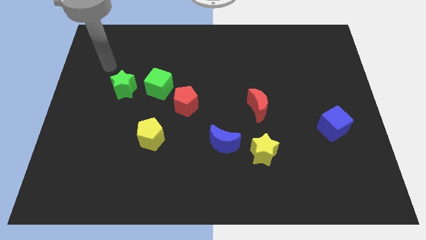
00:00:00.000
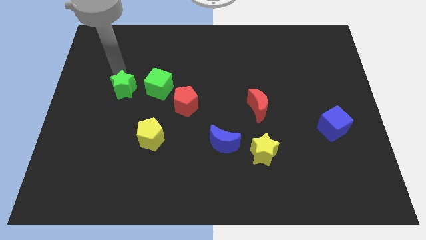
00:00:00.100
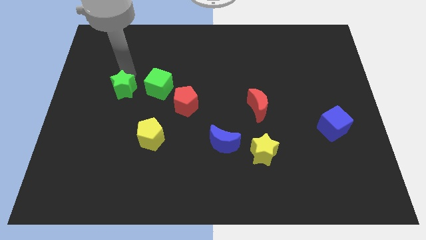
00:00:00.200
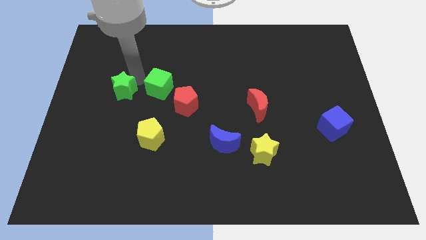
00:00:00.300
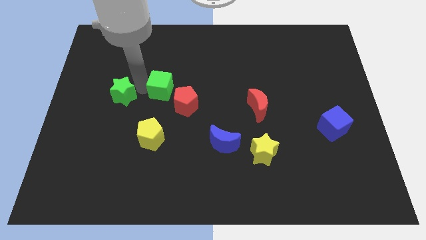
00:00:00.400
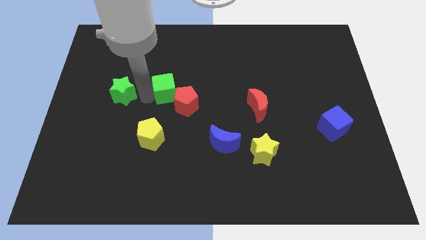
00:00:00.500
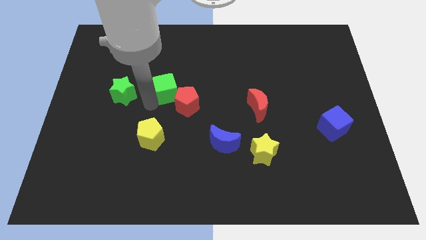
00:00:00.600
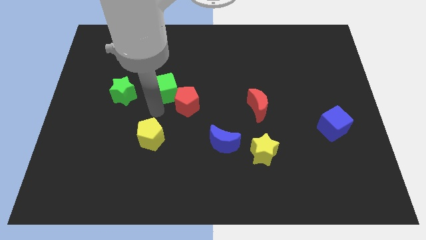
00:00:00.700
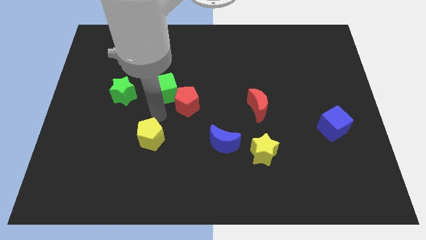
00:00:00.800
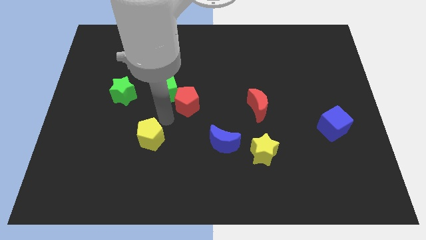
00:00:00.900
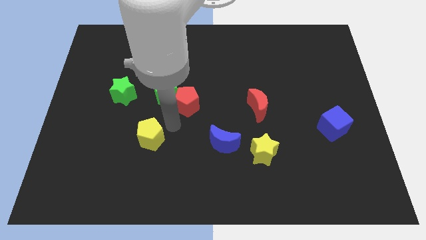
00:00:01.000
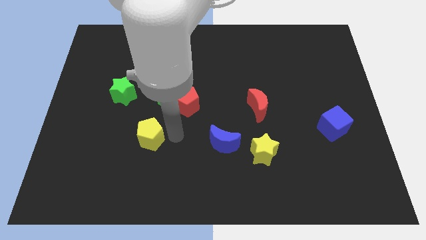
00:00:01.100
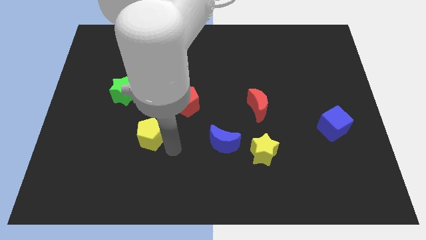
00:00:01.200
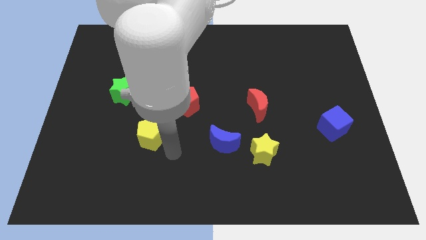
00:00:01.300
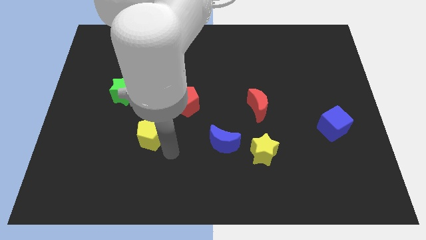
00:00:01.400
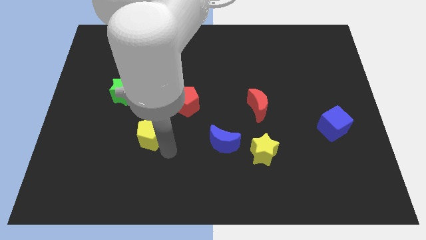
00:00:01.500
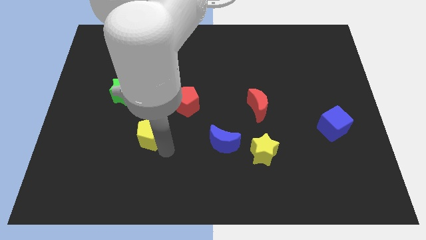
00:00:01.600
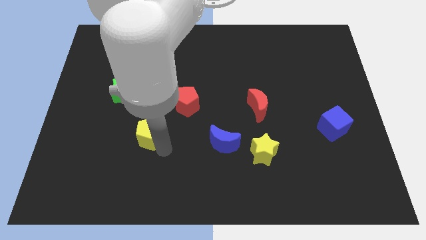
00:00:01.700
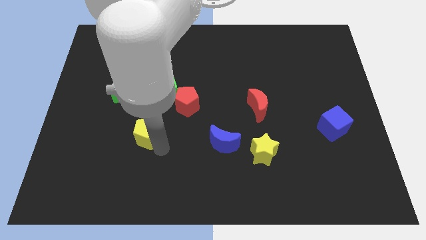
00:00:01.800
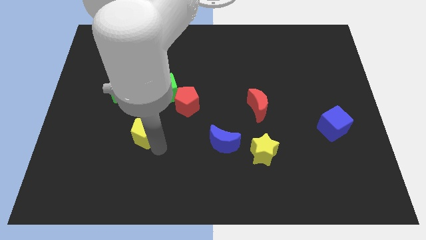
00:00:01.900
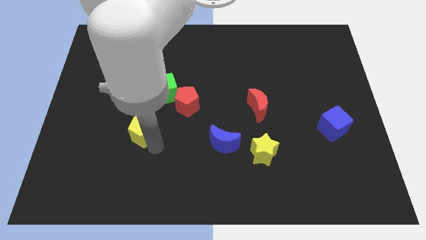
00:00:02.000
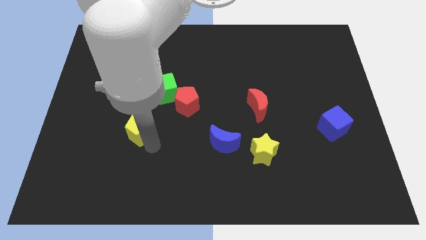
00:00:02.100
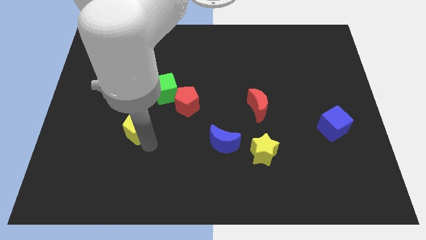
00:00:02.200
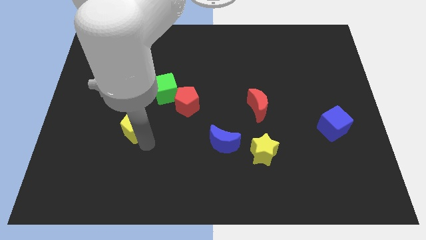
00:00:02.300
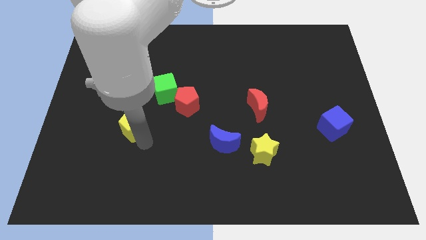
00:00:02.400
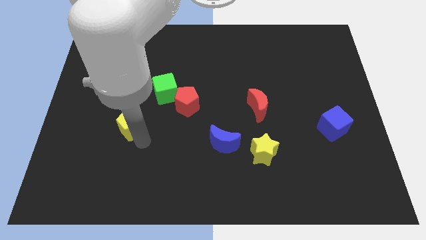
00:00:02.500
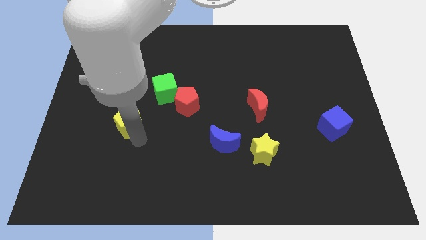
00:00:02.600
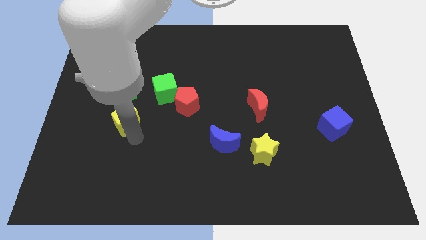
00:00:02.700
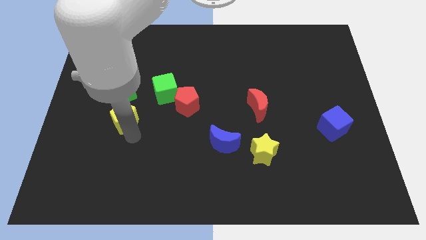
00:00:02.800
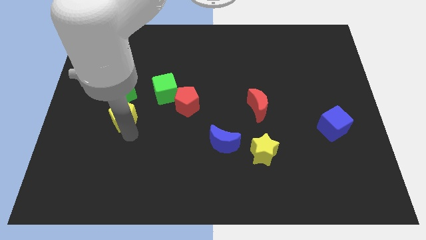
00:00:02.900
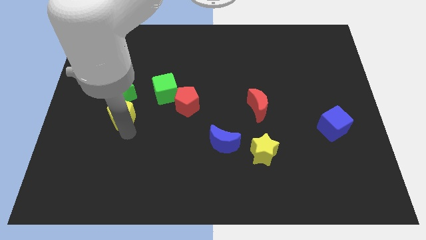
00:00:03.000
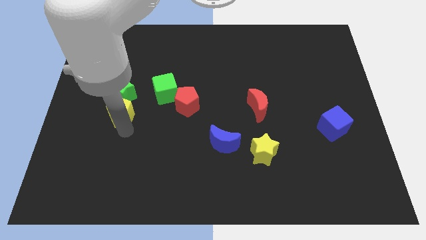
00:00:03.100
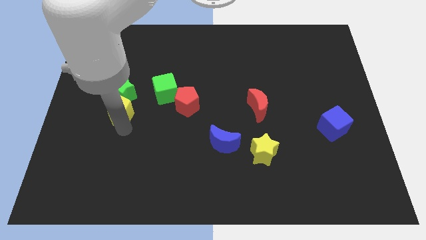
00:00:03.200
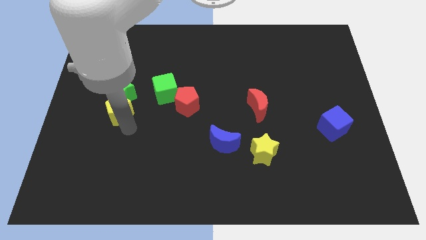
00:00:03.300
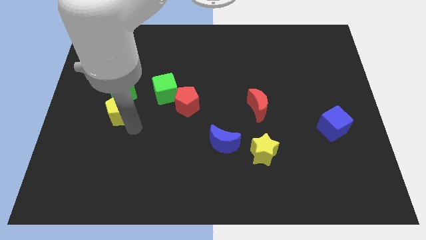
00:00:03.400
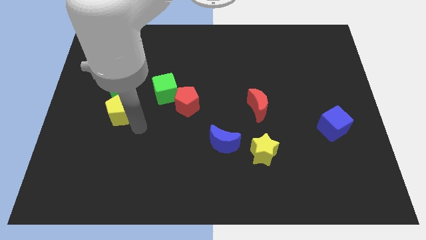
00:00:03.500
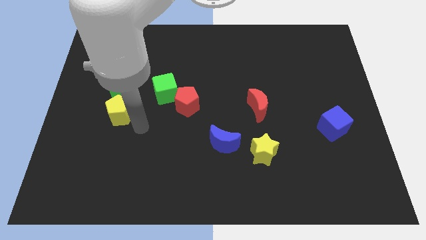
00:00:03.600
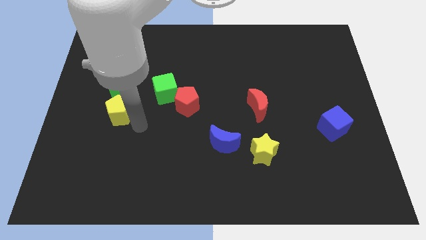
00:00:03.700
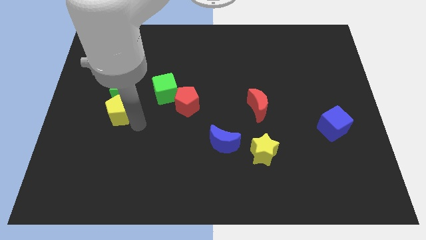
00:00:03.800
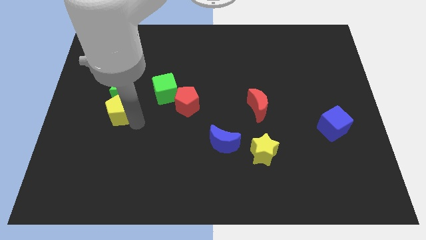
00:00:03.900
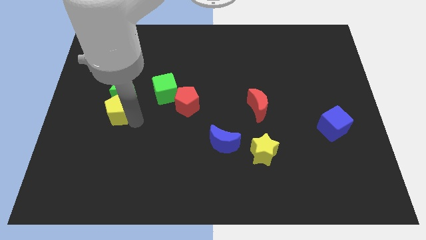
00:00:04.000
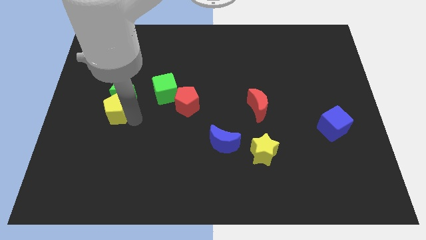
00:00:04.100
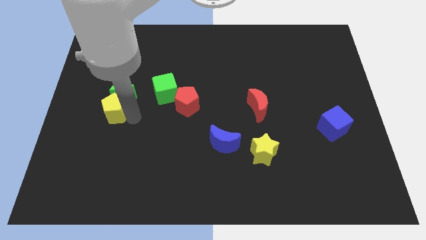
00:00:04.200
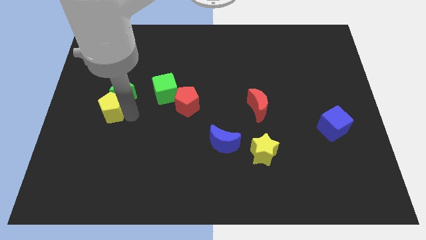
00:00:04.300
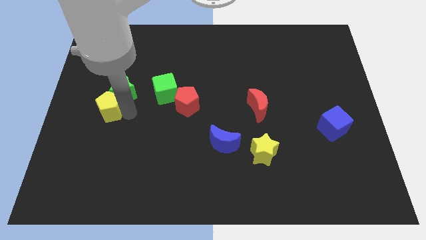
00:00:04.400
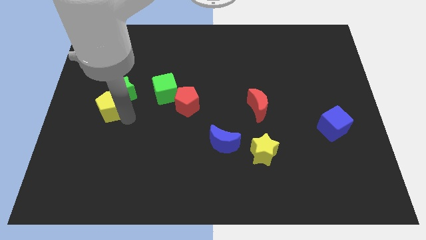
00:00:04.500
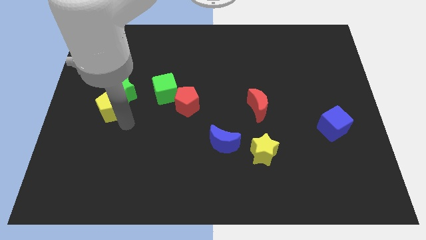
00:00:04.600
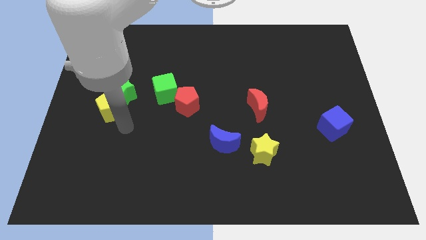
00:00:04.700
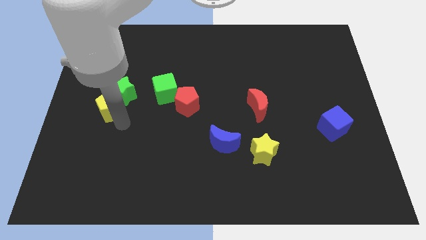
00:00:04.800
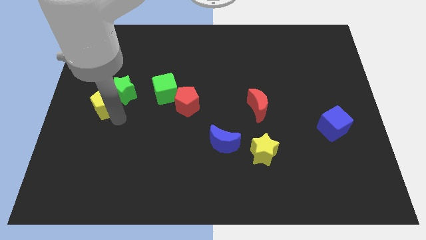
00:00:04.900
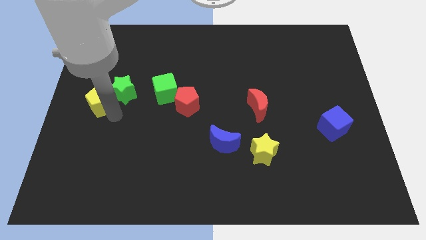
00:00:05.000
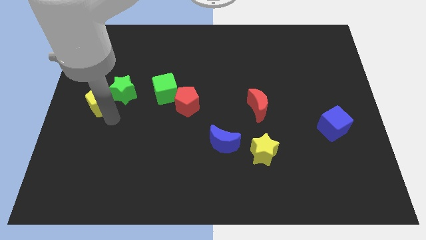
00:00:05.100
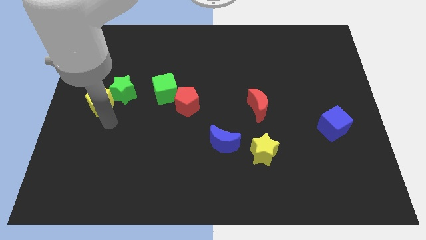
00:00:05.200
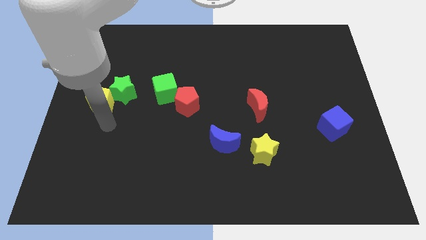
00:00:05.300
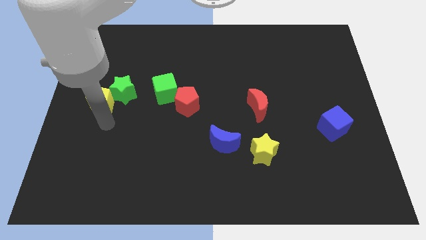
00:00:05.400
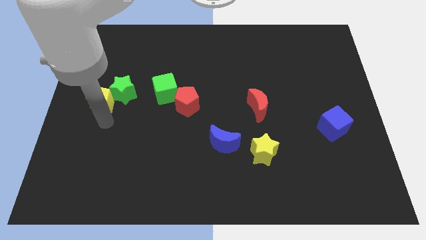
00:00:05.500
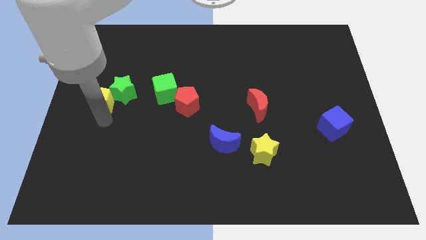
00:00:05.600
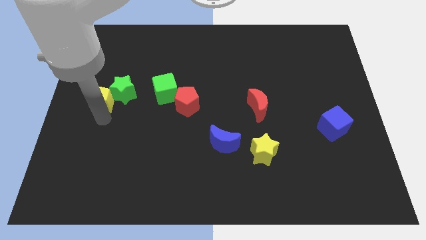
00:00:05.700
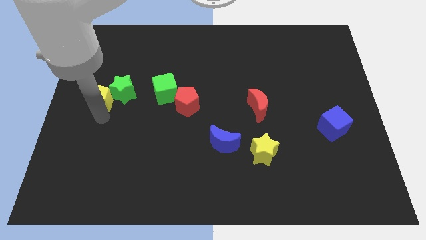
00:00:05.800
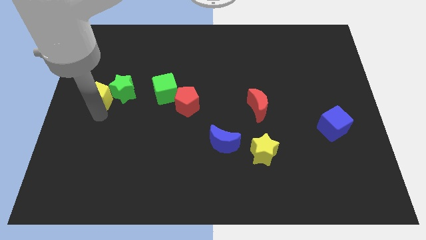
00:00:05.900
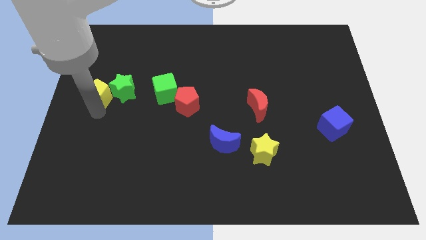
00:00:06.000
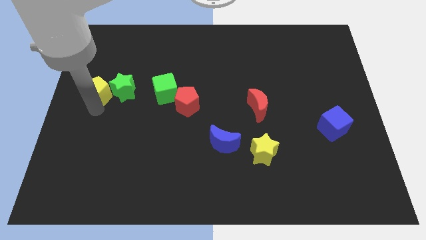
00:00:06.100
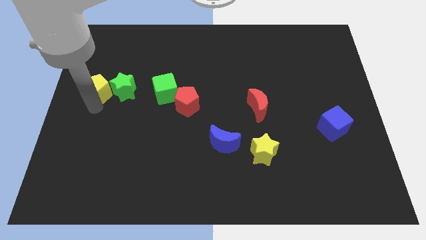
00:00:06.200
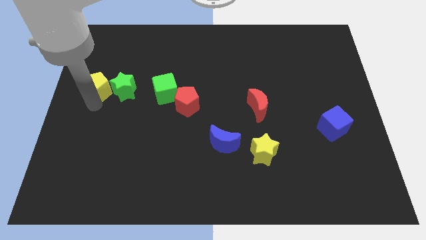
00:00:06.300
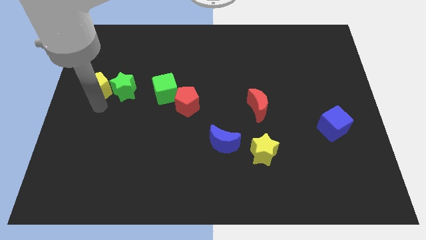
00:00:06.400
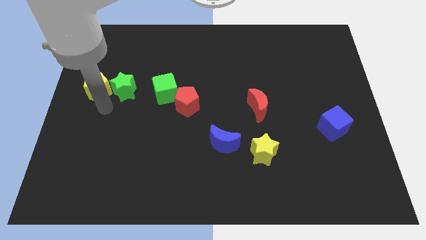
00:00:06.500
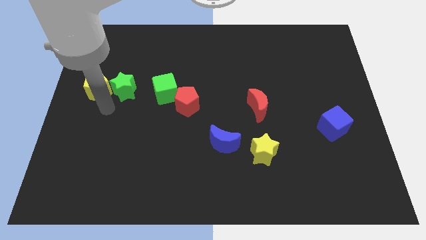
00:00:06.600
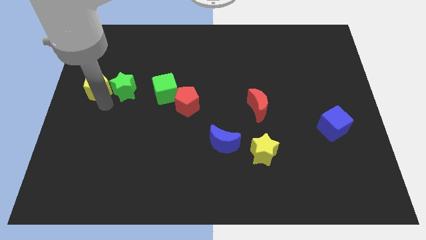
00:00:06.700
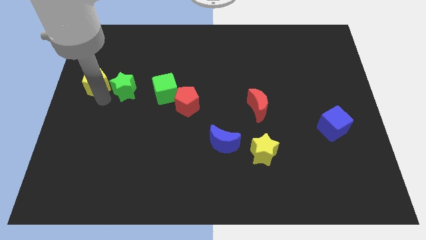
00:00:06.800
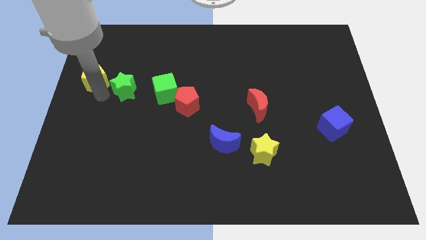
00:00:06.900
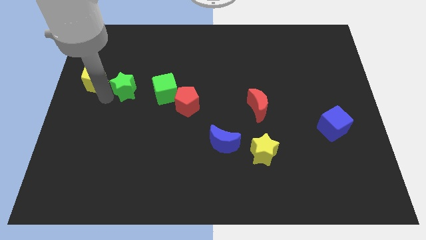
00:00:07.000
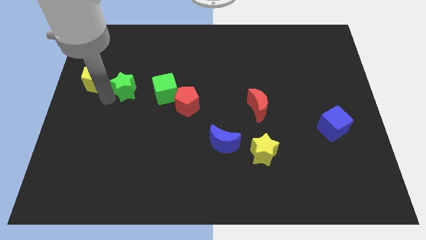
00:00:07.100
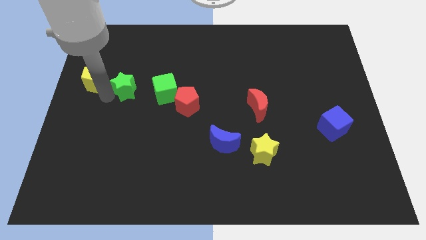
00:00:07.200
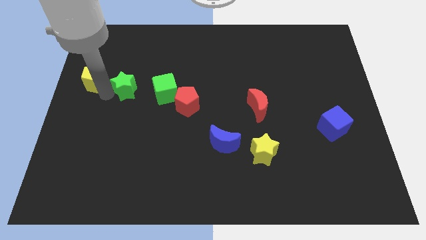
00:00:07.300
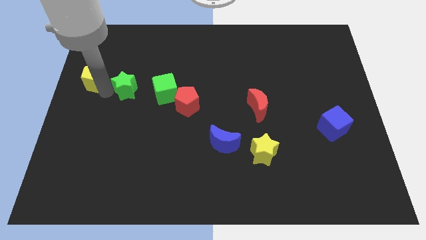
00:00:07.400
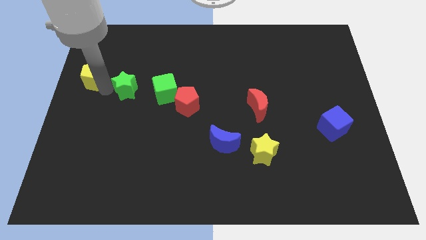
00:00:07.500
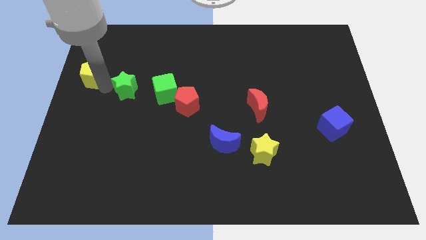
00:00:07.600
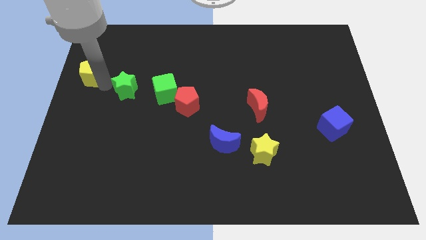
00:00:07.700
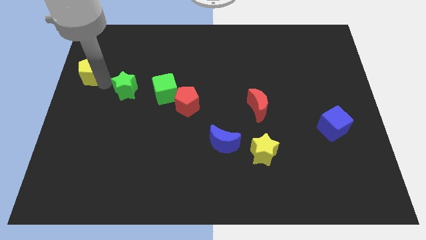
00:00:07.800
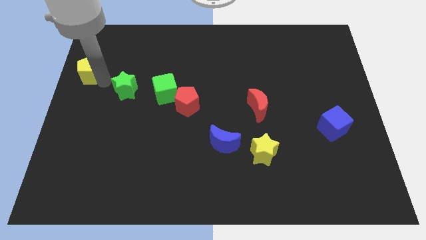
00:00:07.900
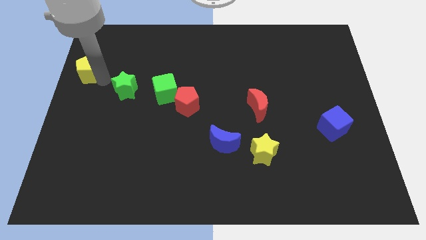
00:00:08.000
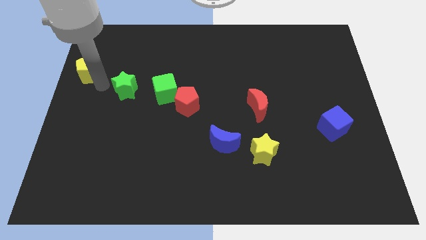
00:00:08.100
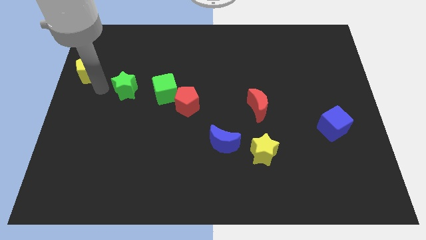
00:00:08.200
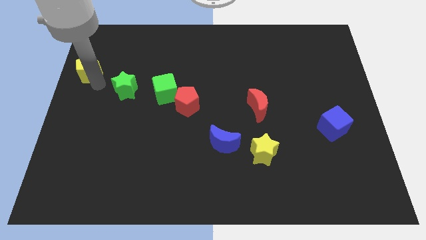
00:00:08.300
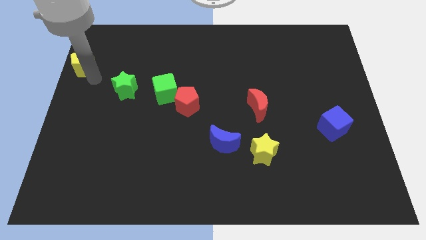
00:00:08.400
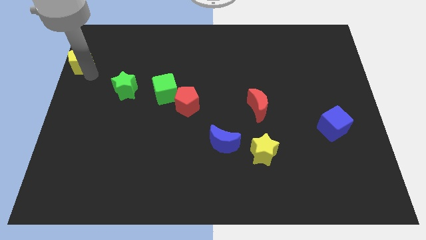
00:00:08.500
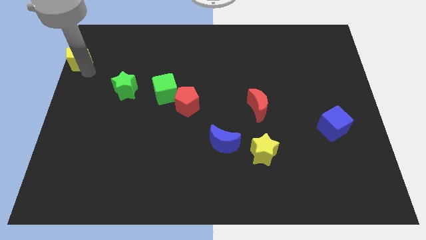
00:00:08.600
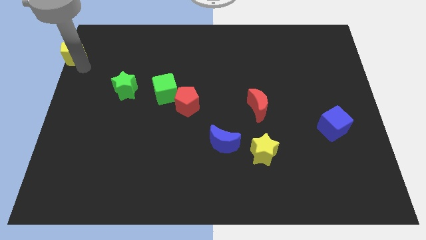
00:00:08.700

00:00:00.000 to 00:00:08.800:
slide the yellow pentagon to the upper left corner
